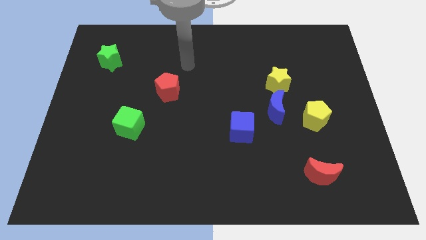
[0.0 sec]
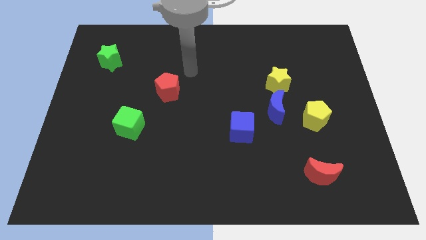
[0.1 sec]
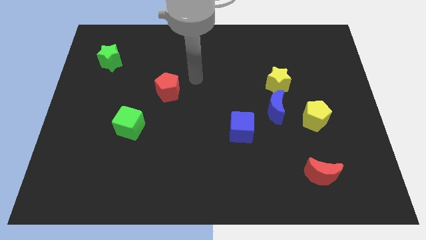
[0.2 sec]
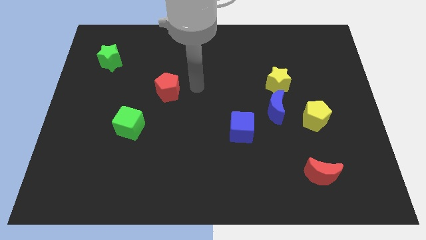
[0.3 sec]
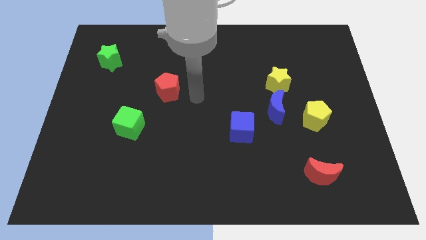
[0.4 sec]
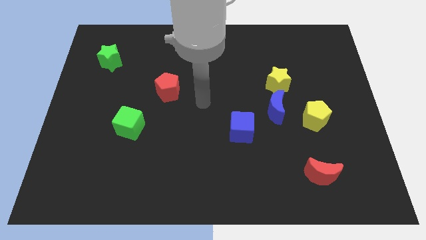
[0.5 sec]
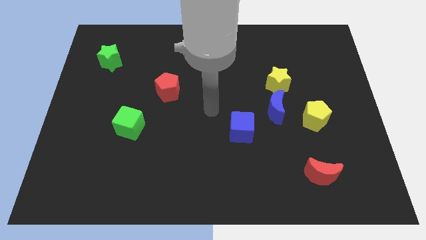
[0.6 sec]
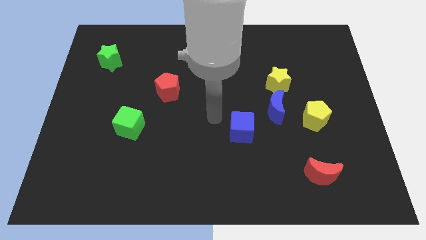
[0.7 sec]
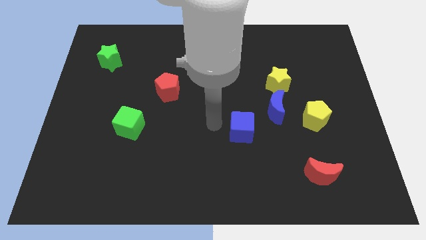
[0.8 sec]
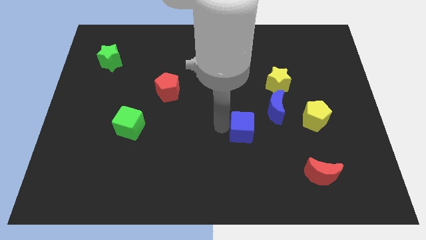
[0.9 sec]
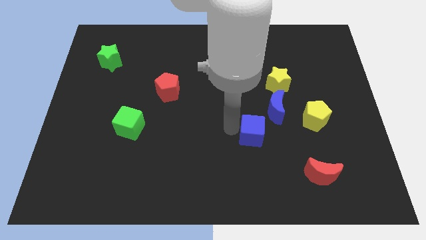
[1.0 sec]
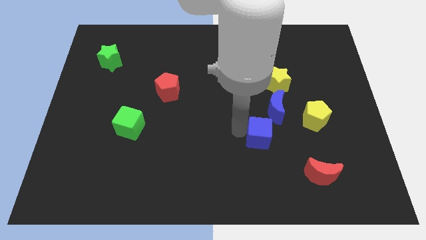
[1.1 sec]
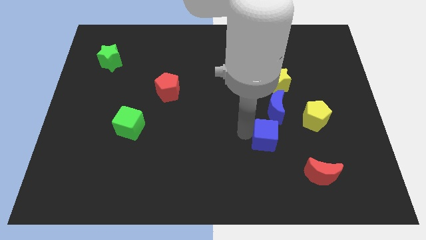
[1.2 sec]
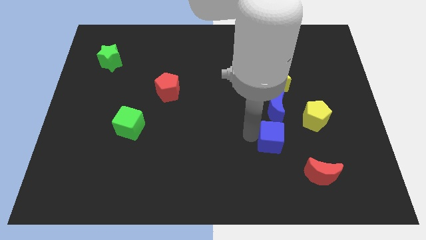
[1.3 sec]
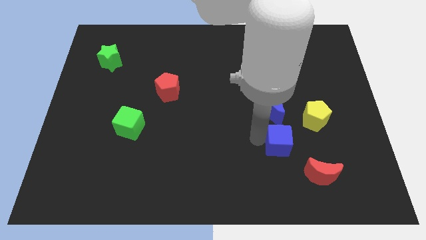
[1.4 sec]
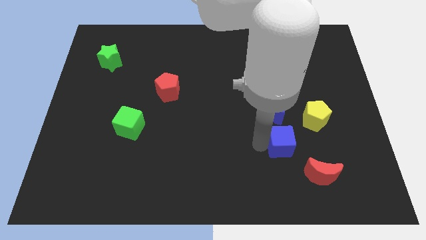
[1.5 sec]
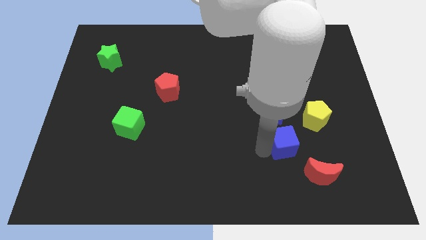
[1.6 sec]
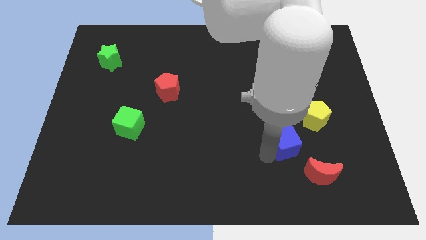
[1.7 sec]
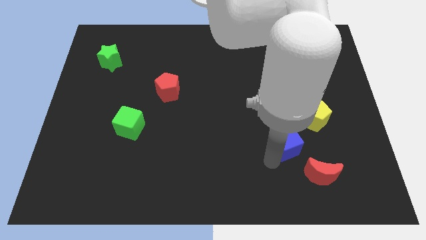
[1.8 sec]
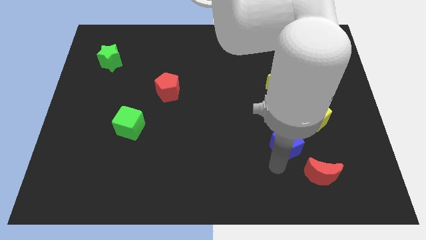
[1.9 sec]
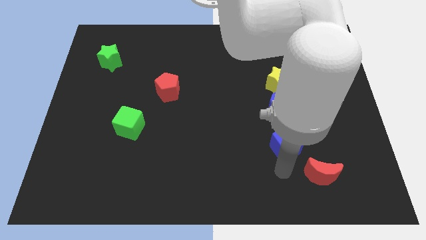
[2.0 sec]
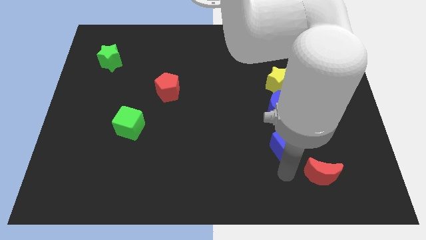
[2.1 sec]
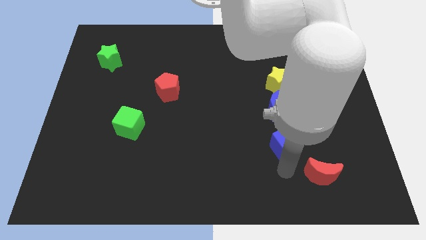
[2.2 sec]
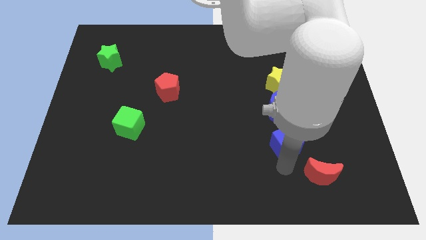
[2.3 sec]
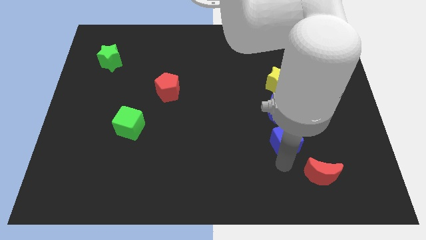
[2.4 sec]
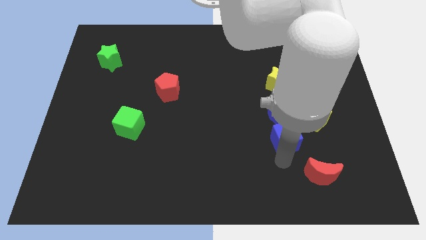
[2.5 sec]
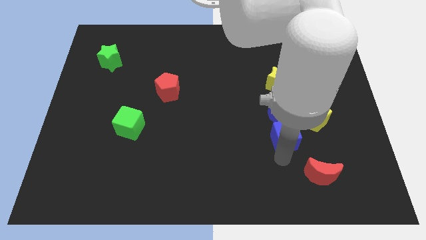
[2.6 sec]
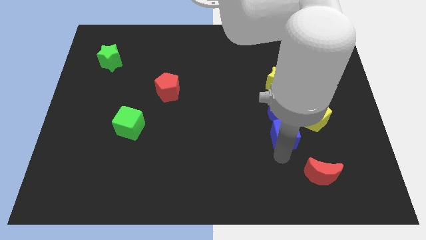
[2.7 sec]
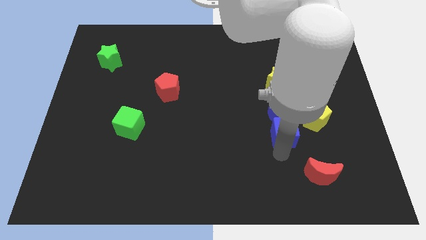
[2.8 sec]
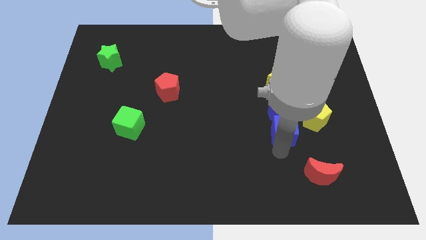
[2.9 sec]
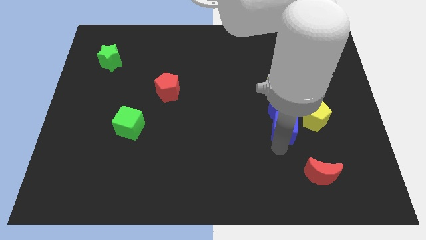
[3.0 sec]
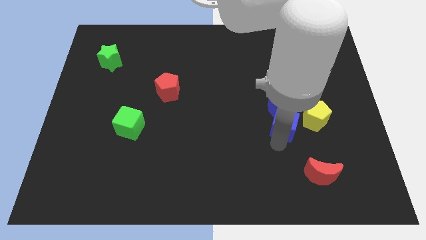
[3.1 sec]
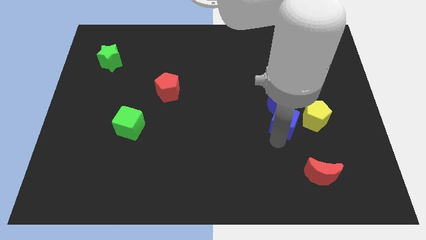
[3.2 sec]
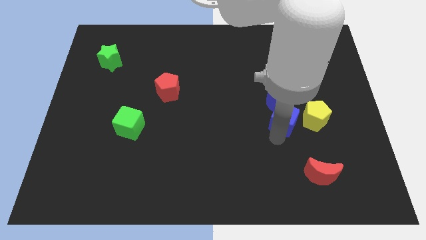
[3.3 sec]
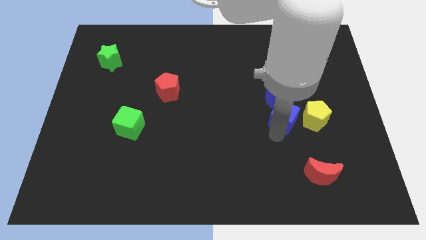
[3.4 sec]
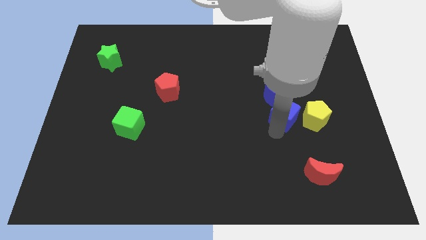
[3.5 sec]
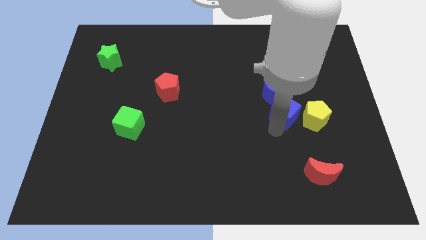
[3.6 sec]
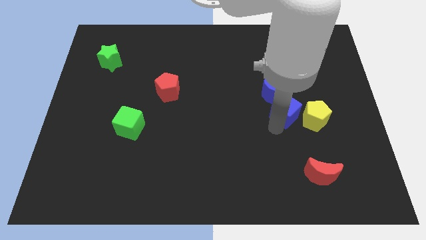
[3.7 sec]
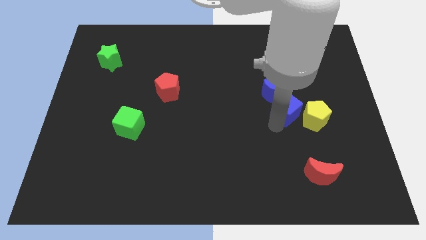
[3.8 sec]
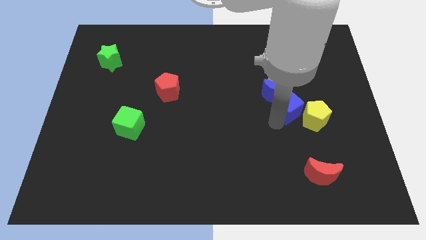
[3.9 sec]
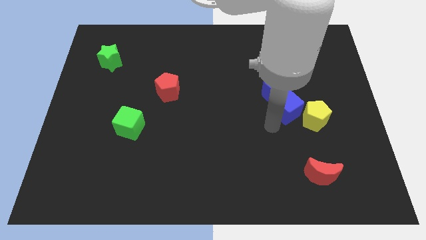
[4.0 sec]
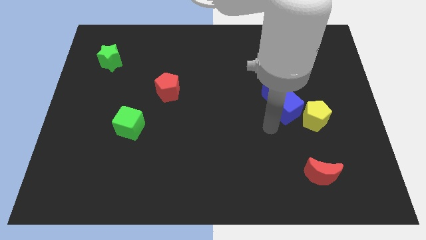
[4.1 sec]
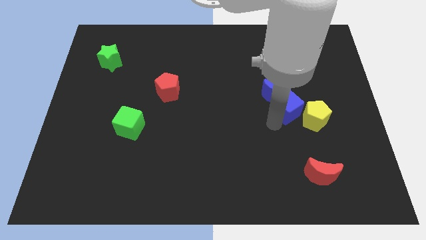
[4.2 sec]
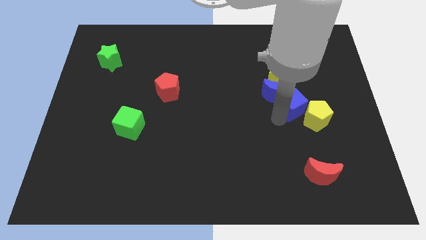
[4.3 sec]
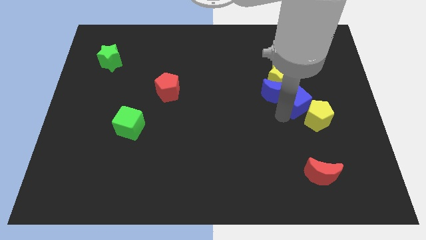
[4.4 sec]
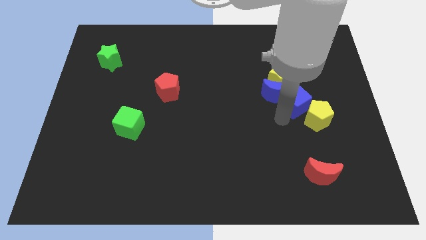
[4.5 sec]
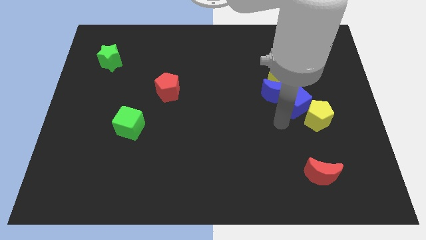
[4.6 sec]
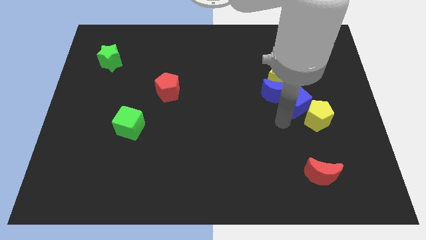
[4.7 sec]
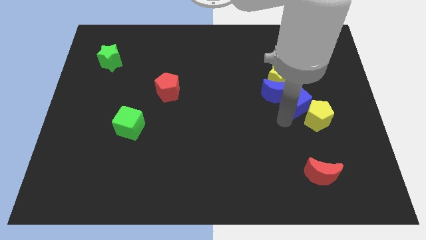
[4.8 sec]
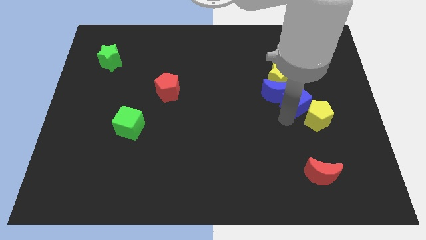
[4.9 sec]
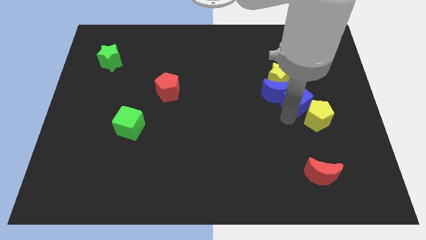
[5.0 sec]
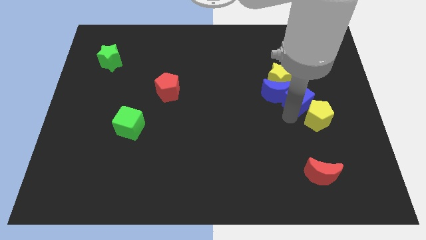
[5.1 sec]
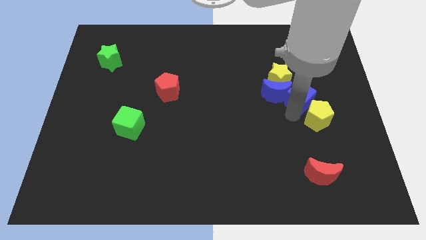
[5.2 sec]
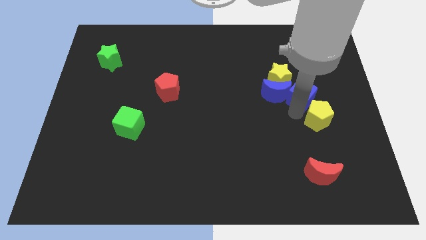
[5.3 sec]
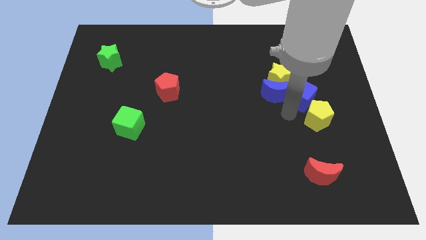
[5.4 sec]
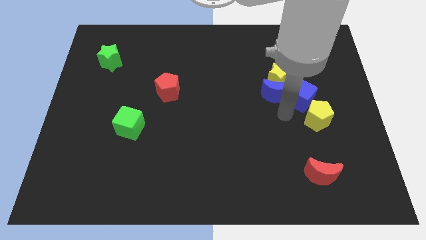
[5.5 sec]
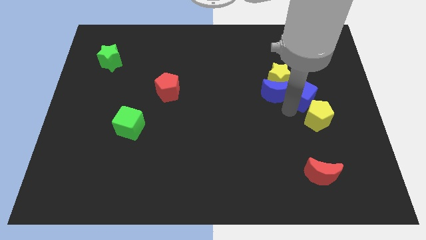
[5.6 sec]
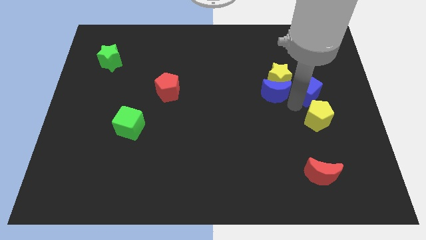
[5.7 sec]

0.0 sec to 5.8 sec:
move the blue cube right of the yellow star

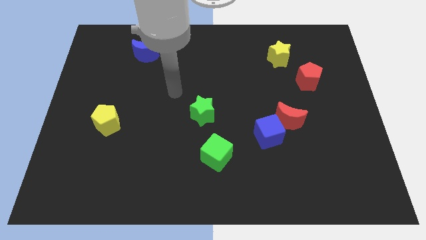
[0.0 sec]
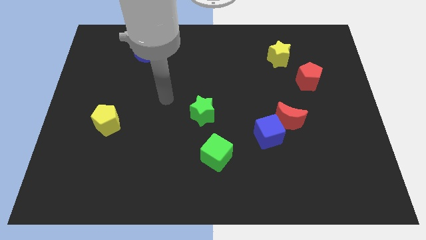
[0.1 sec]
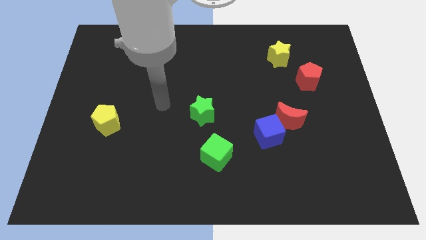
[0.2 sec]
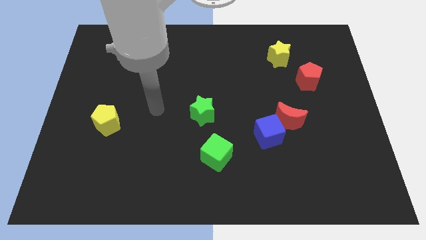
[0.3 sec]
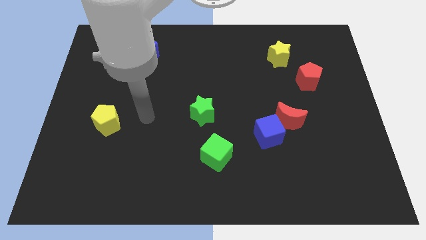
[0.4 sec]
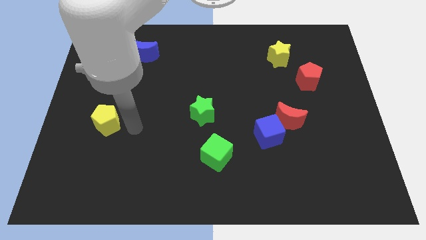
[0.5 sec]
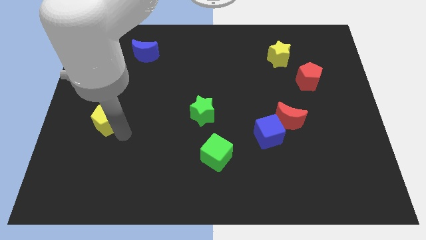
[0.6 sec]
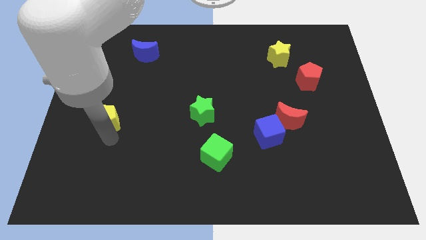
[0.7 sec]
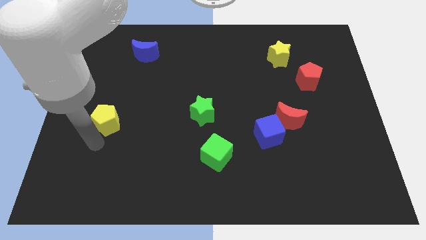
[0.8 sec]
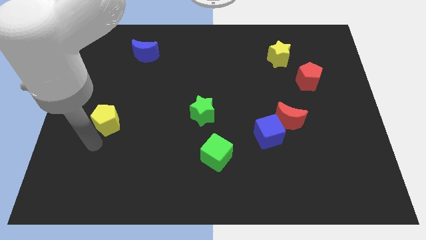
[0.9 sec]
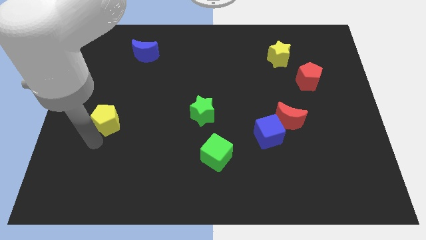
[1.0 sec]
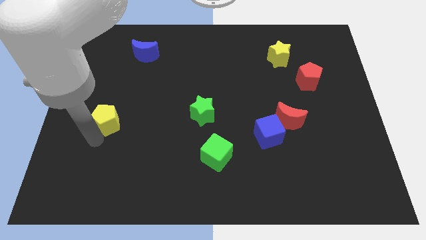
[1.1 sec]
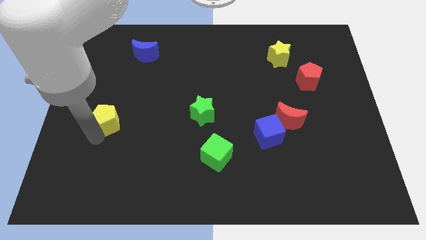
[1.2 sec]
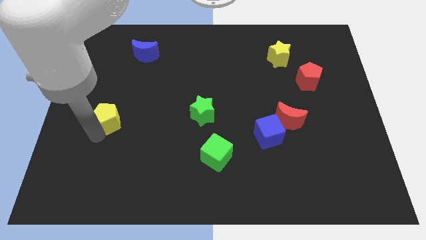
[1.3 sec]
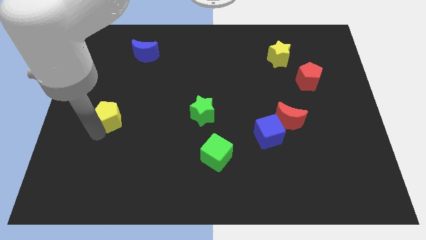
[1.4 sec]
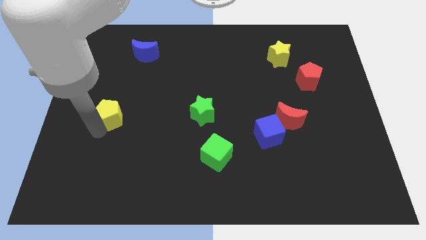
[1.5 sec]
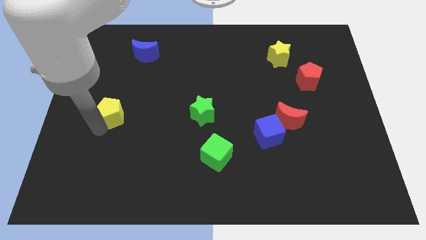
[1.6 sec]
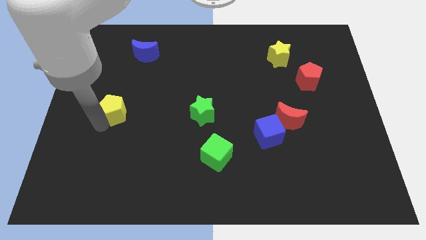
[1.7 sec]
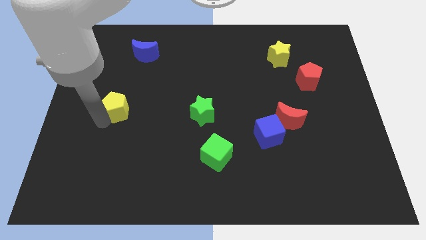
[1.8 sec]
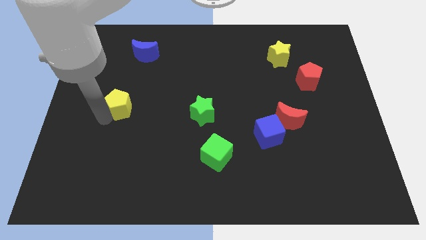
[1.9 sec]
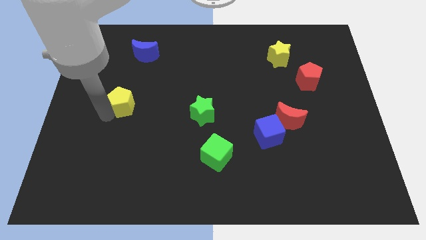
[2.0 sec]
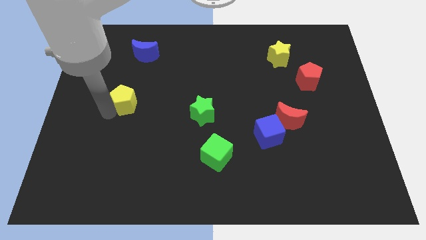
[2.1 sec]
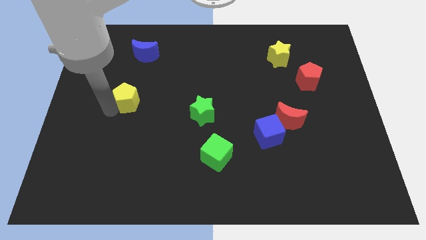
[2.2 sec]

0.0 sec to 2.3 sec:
slide the yellow pentagon to the bottom side of the blue moon
